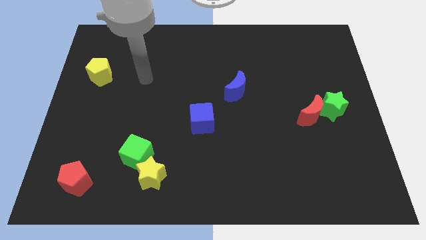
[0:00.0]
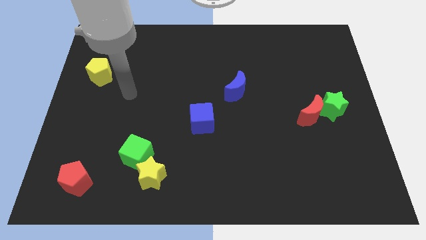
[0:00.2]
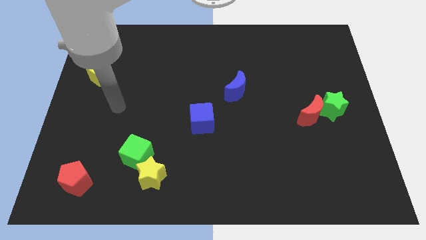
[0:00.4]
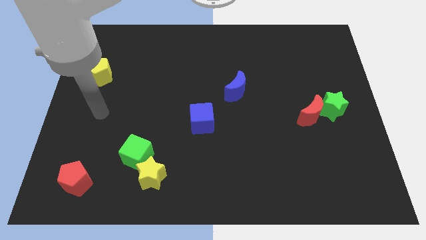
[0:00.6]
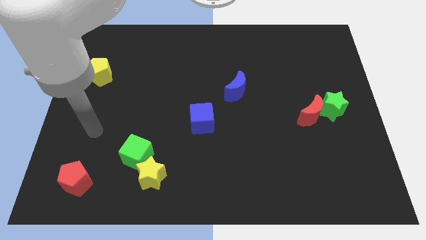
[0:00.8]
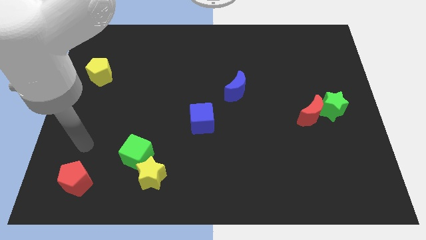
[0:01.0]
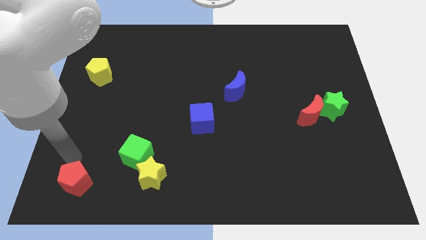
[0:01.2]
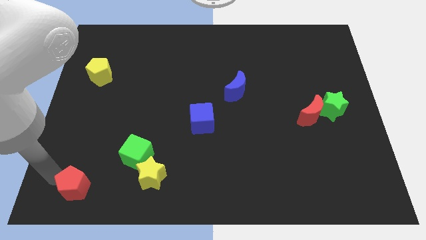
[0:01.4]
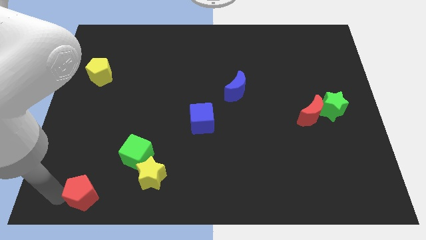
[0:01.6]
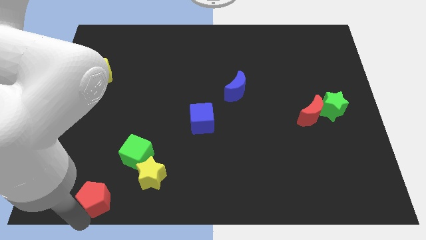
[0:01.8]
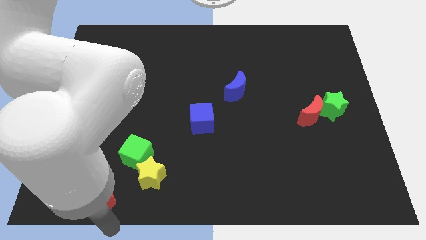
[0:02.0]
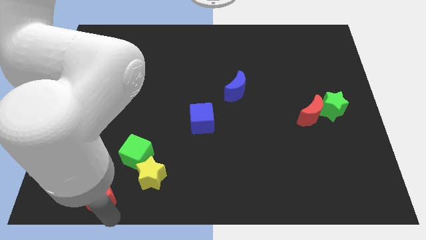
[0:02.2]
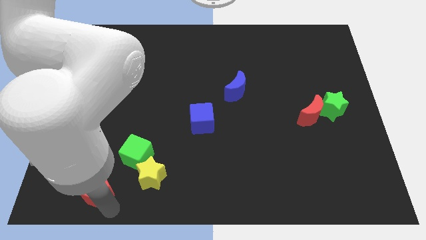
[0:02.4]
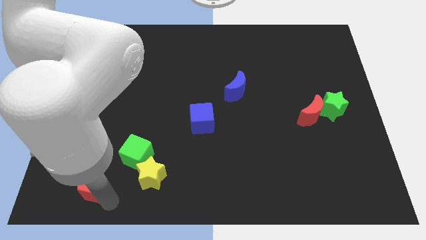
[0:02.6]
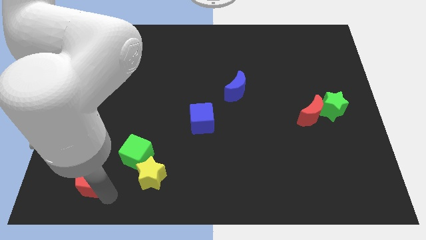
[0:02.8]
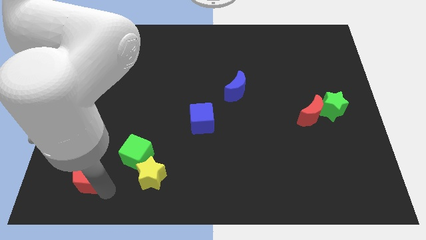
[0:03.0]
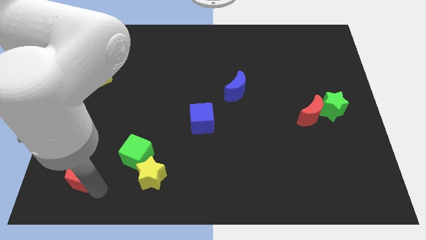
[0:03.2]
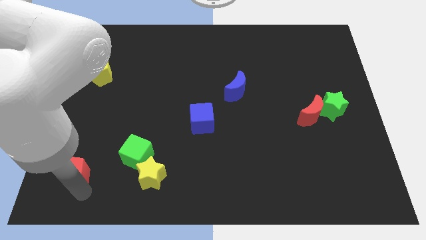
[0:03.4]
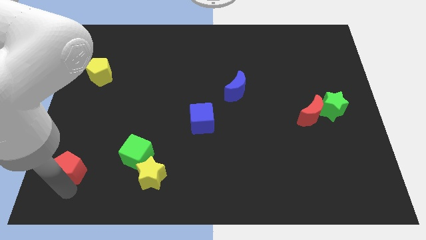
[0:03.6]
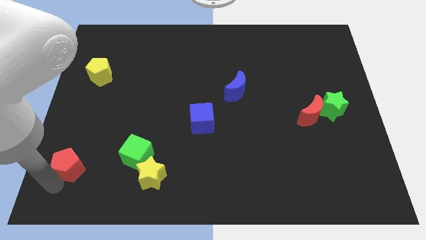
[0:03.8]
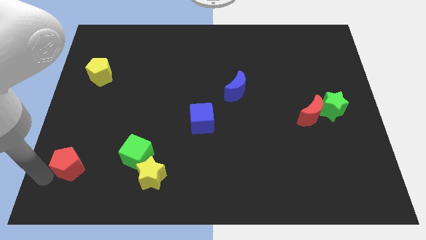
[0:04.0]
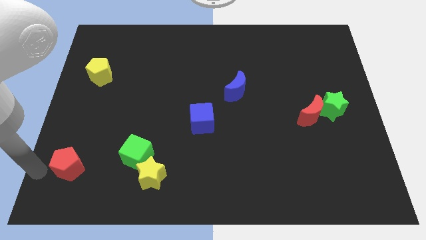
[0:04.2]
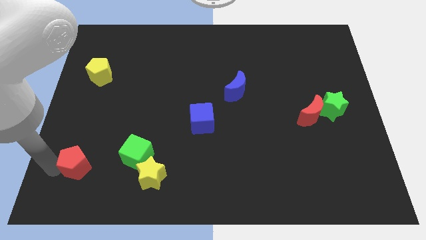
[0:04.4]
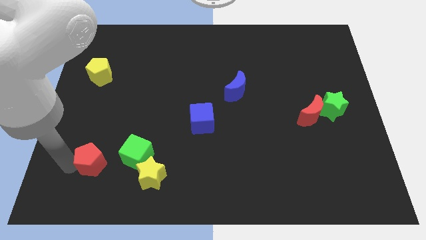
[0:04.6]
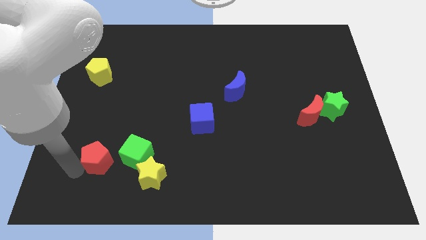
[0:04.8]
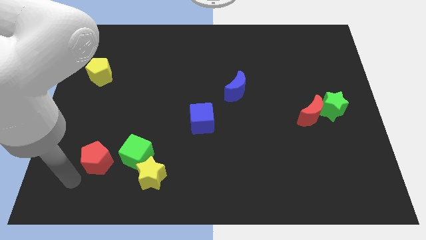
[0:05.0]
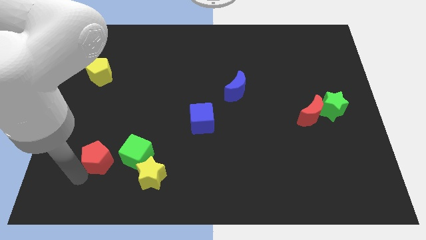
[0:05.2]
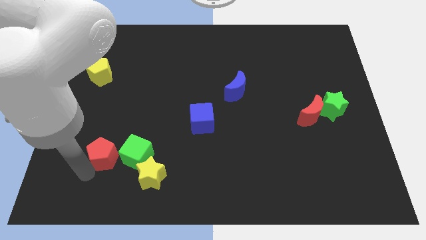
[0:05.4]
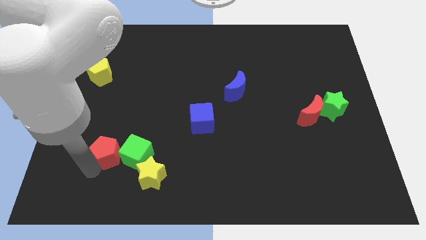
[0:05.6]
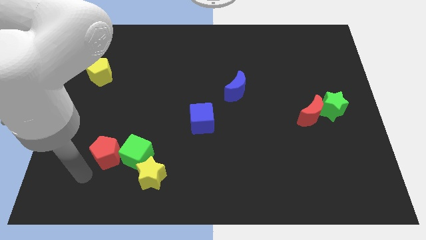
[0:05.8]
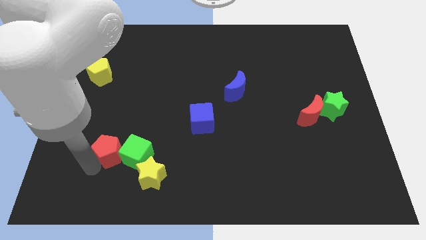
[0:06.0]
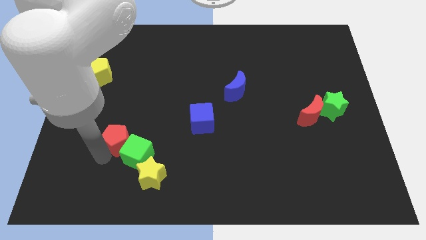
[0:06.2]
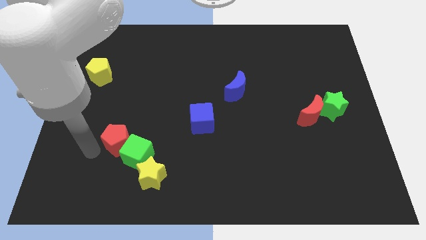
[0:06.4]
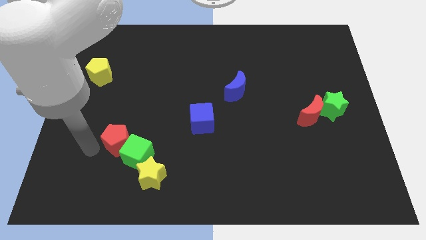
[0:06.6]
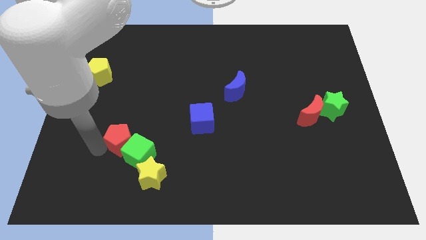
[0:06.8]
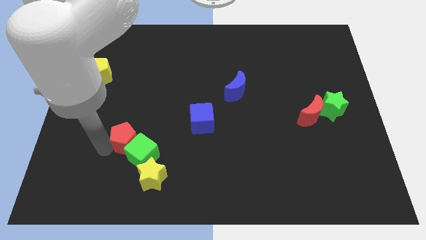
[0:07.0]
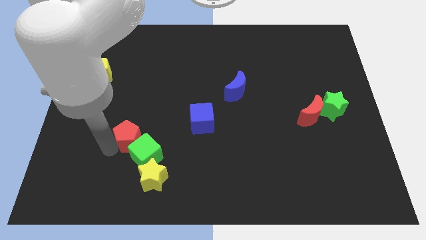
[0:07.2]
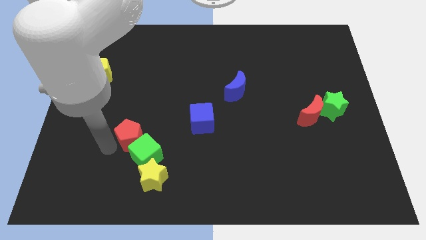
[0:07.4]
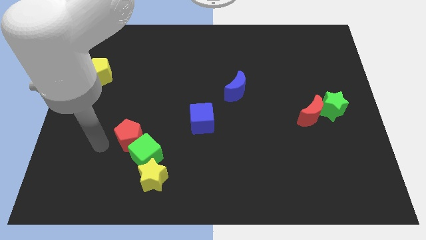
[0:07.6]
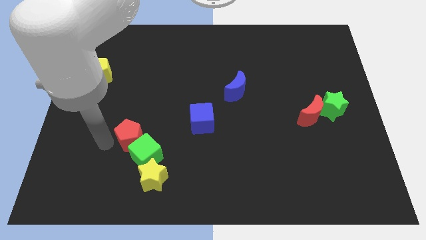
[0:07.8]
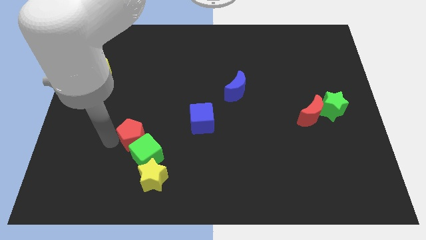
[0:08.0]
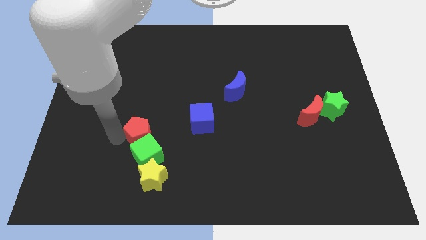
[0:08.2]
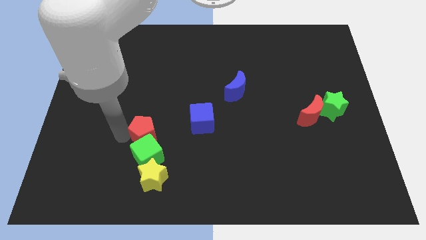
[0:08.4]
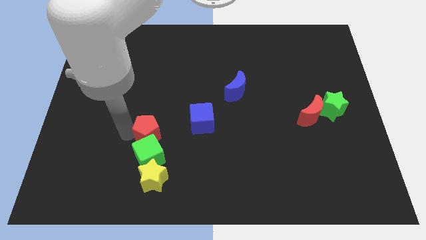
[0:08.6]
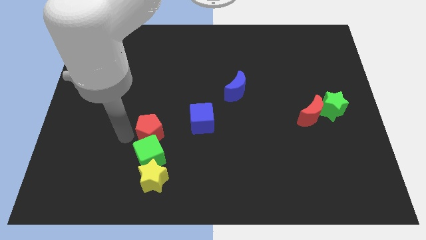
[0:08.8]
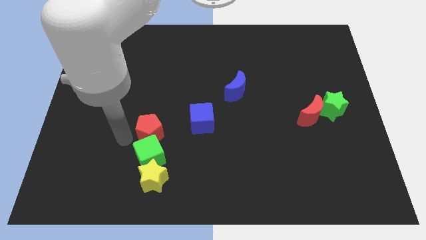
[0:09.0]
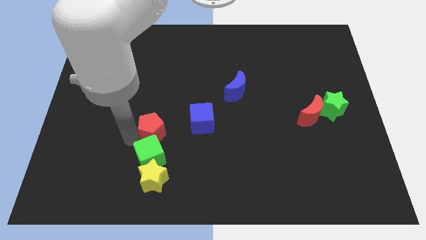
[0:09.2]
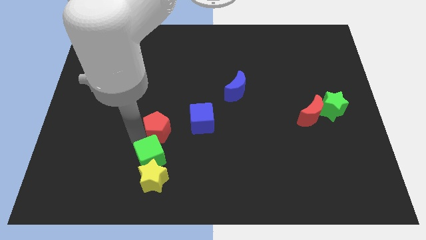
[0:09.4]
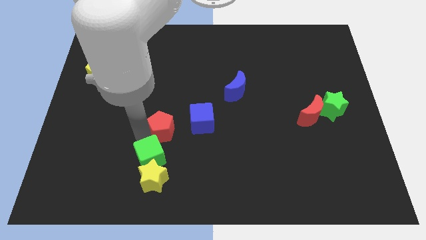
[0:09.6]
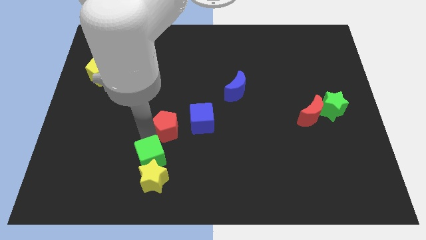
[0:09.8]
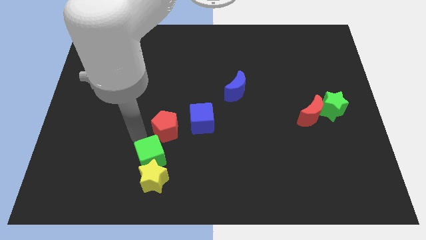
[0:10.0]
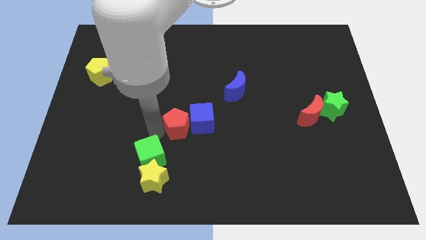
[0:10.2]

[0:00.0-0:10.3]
put the red pentagon to the blue cube
